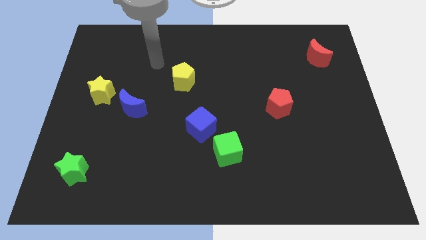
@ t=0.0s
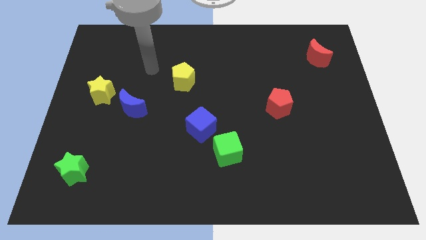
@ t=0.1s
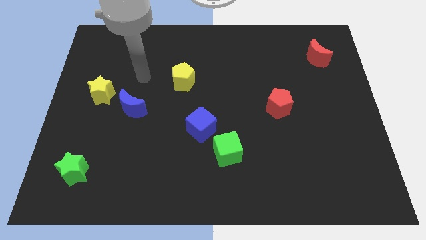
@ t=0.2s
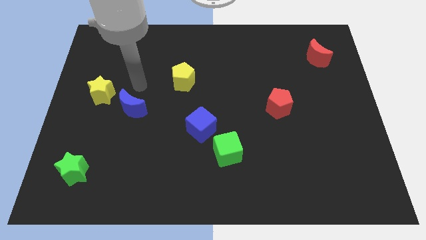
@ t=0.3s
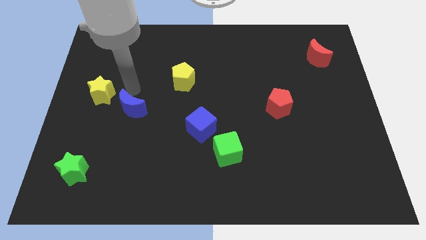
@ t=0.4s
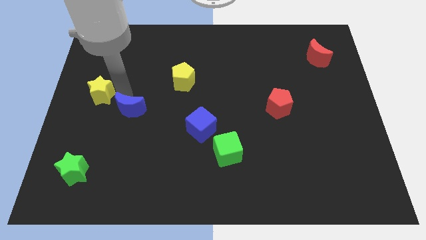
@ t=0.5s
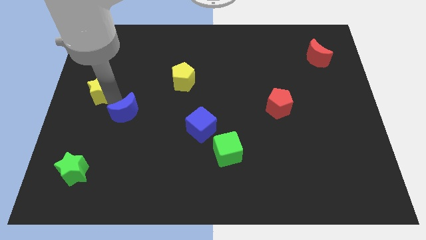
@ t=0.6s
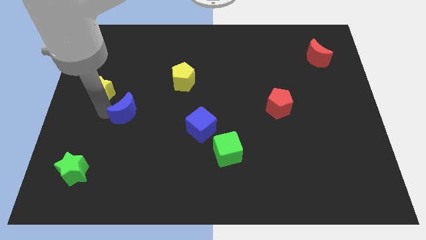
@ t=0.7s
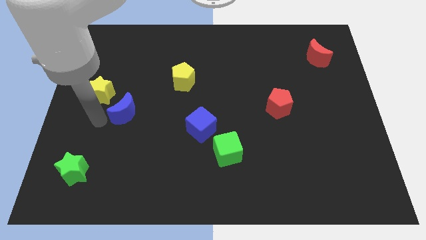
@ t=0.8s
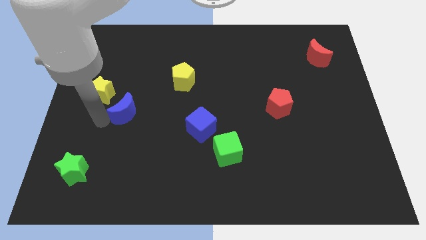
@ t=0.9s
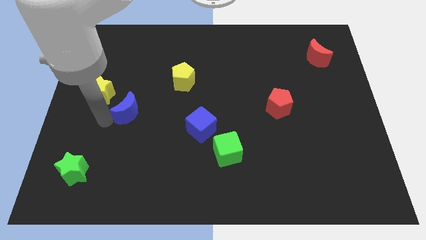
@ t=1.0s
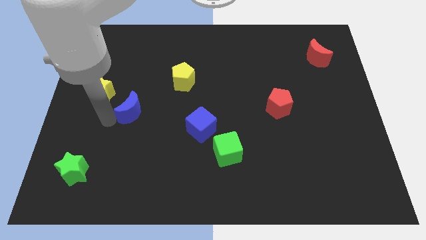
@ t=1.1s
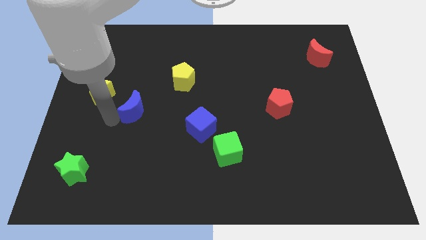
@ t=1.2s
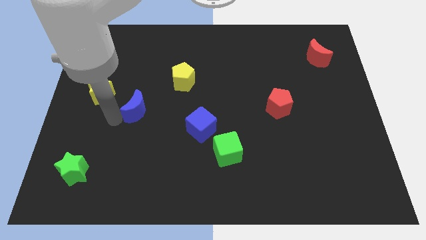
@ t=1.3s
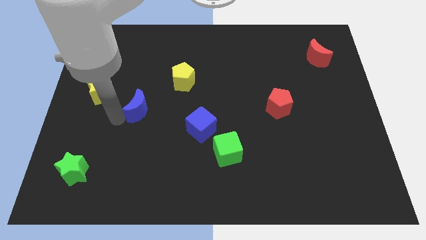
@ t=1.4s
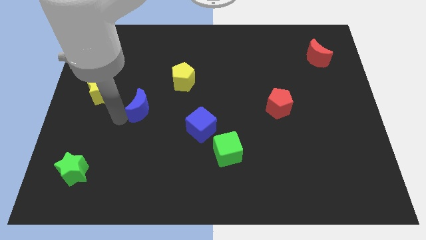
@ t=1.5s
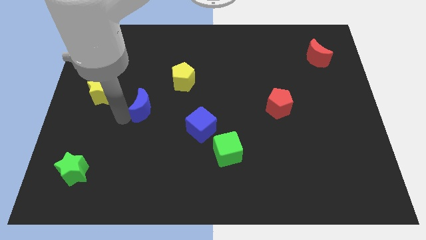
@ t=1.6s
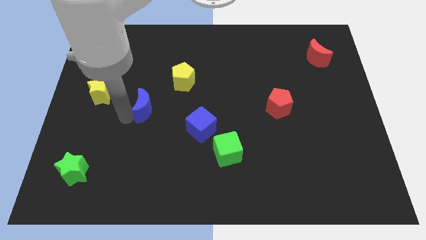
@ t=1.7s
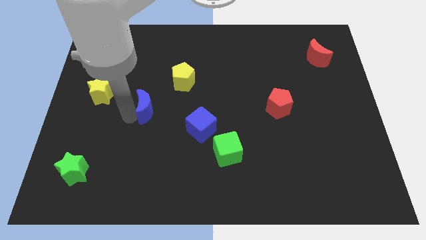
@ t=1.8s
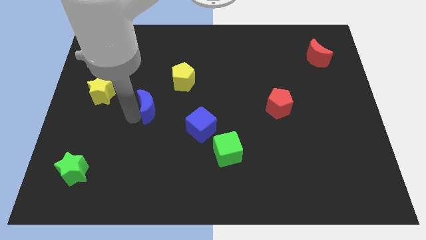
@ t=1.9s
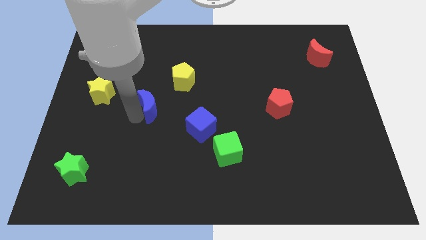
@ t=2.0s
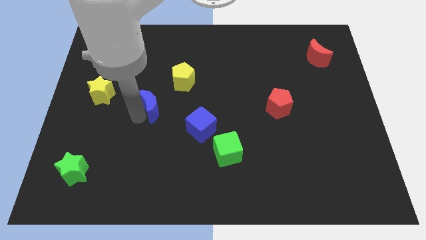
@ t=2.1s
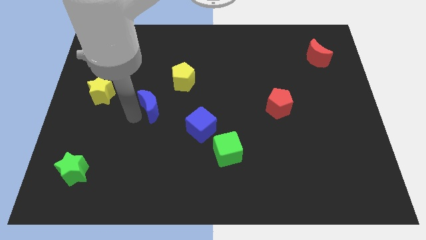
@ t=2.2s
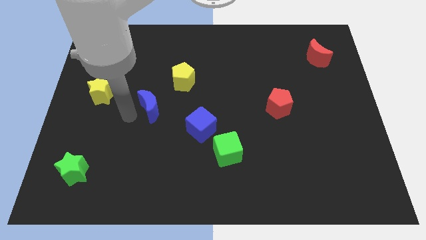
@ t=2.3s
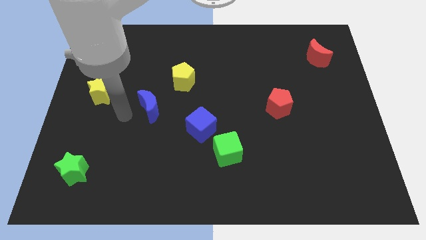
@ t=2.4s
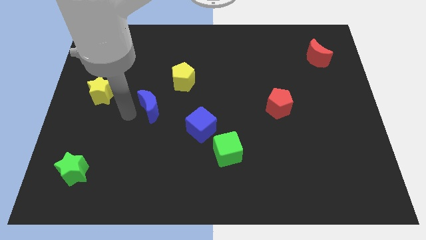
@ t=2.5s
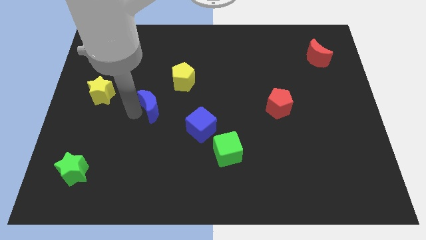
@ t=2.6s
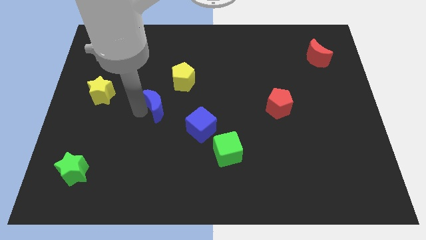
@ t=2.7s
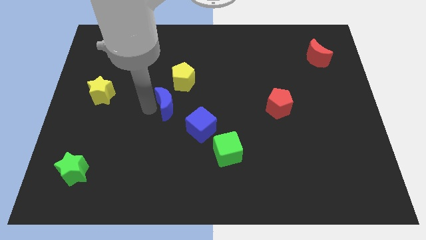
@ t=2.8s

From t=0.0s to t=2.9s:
slide the blue moon a little bit to the right

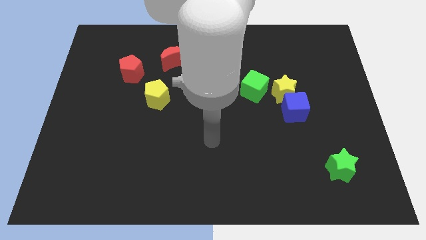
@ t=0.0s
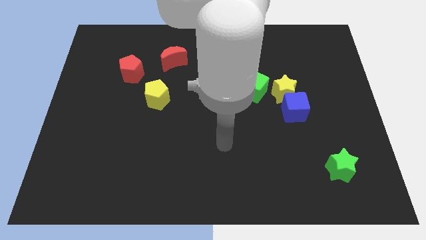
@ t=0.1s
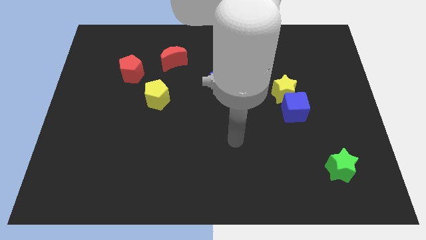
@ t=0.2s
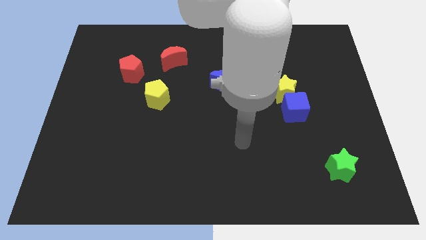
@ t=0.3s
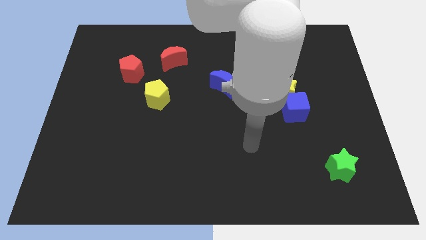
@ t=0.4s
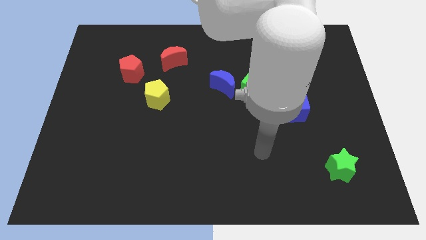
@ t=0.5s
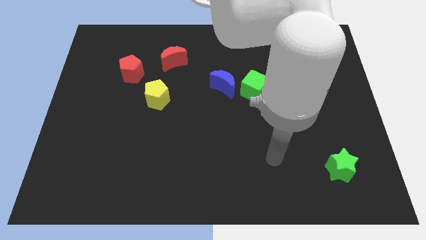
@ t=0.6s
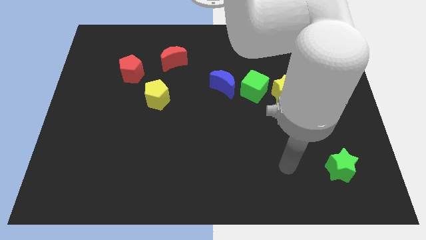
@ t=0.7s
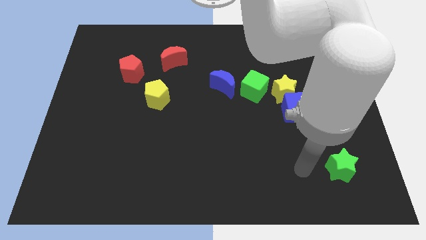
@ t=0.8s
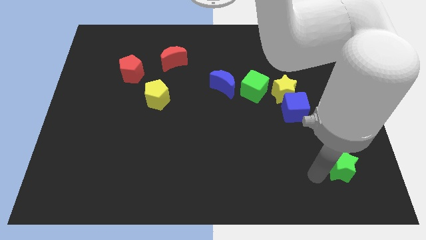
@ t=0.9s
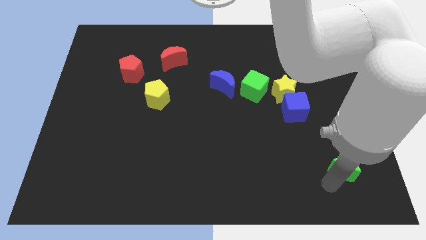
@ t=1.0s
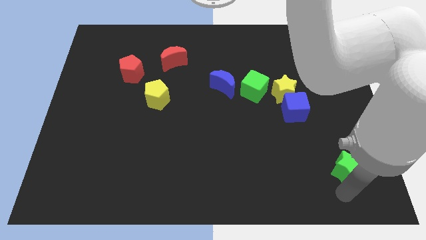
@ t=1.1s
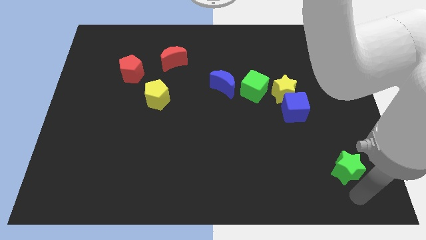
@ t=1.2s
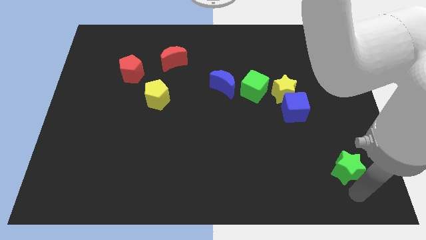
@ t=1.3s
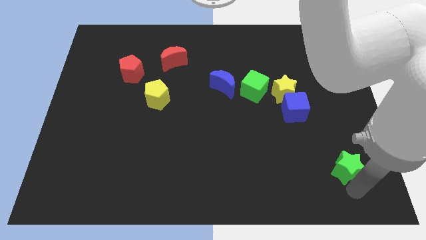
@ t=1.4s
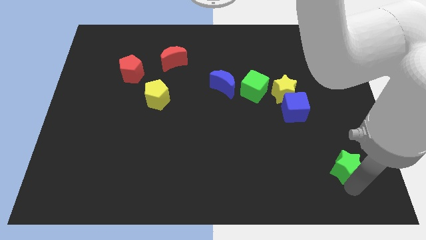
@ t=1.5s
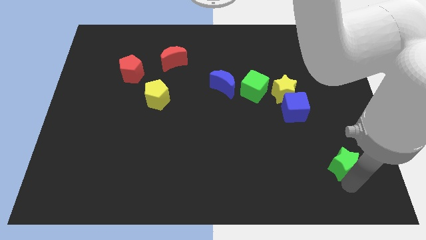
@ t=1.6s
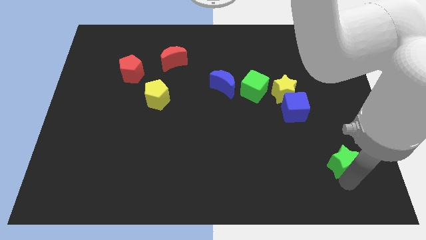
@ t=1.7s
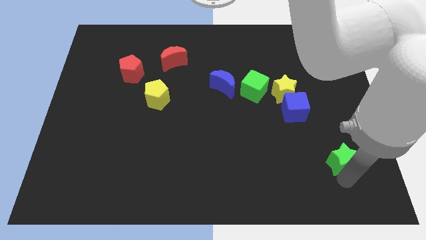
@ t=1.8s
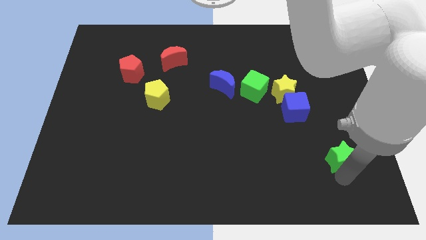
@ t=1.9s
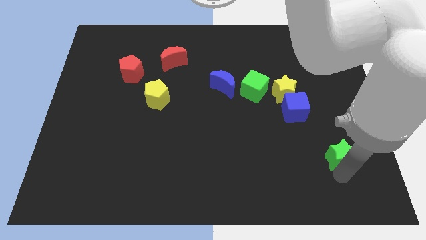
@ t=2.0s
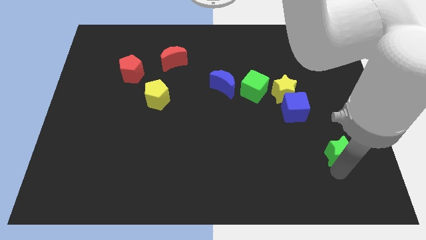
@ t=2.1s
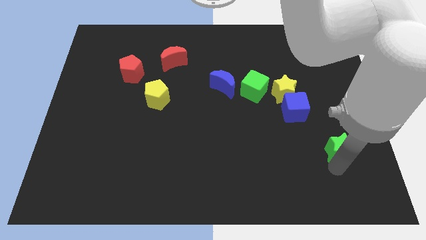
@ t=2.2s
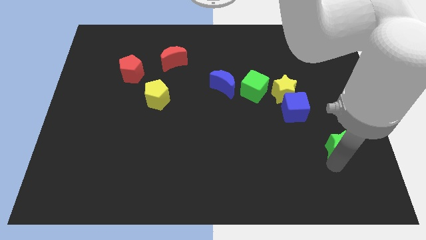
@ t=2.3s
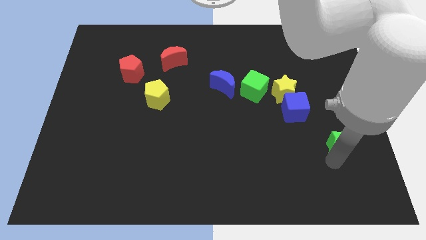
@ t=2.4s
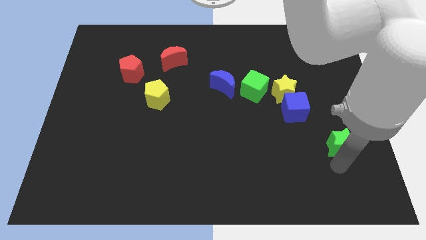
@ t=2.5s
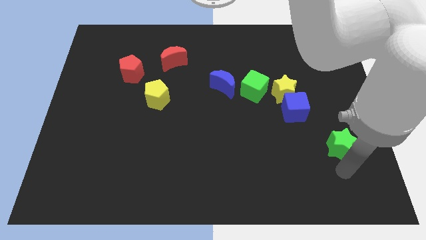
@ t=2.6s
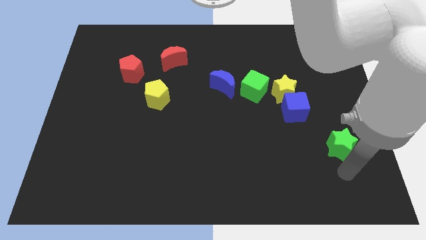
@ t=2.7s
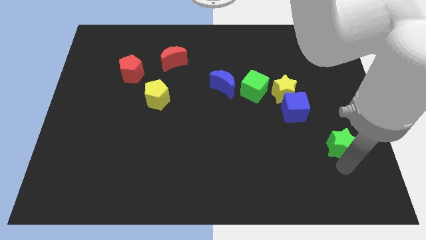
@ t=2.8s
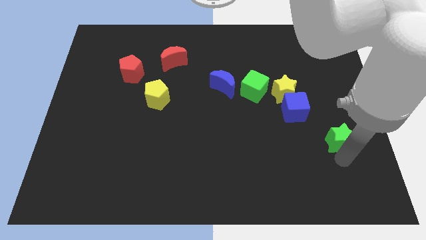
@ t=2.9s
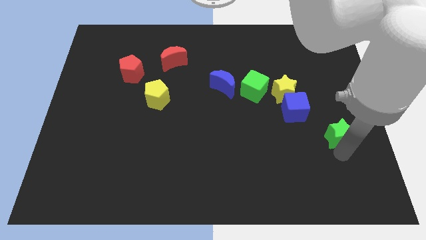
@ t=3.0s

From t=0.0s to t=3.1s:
push the green star upwards slightly

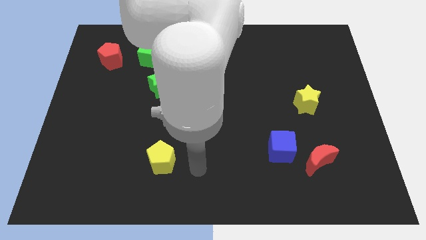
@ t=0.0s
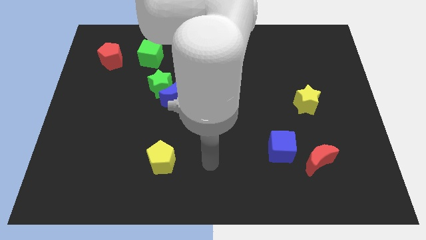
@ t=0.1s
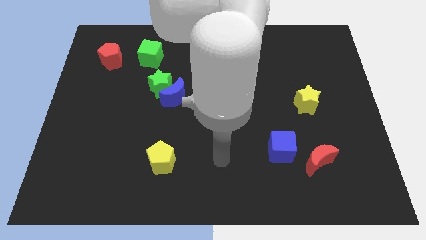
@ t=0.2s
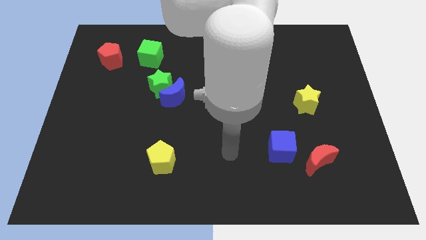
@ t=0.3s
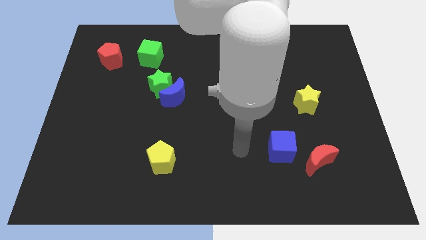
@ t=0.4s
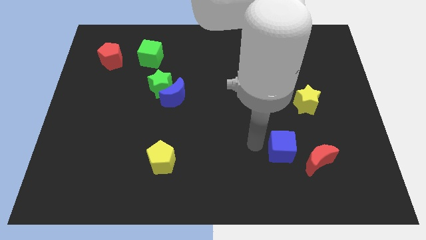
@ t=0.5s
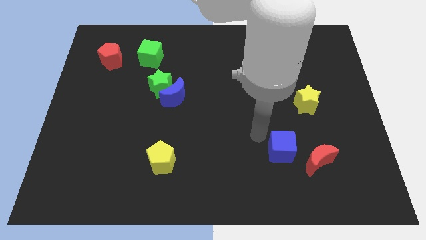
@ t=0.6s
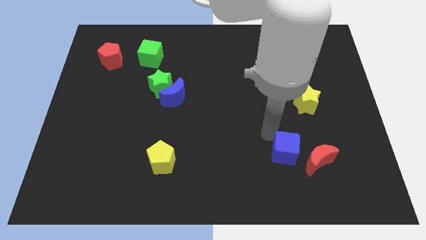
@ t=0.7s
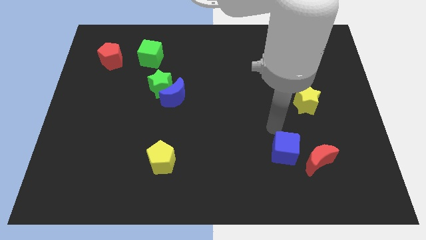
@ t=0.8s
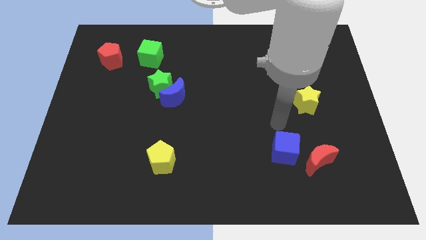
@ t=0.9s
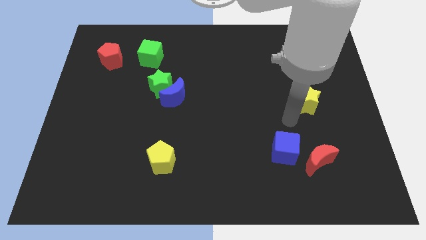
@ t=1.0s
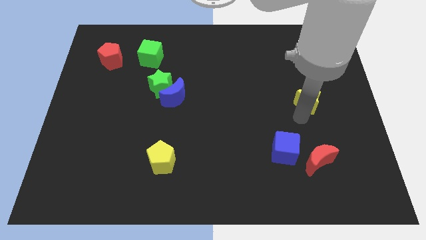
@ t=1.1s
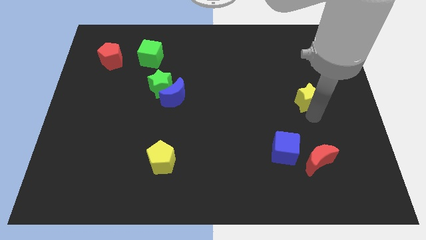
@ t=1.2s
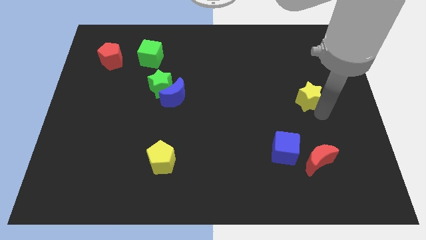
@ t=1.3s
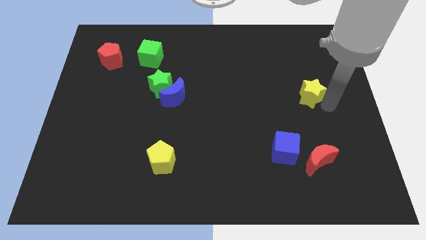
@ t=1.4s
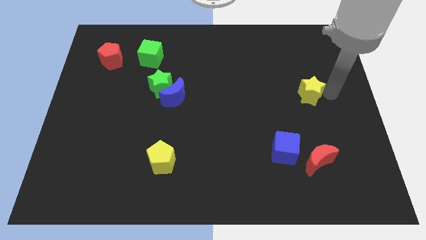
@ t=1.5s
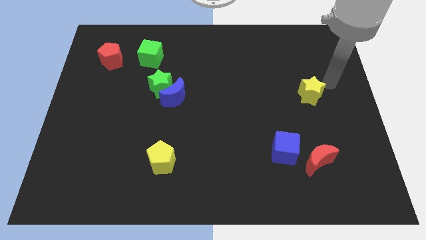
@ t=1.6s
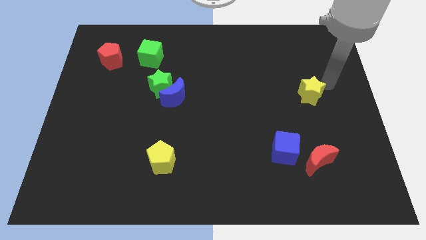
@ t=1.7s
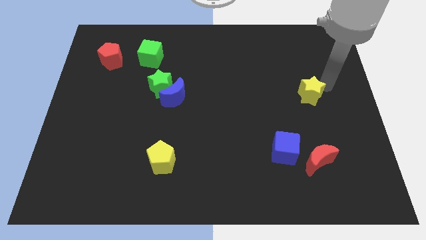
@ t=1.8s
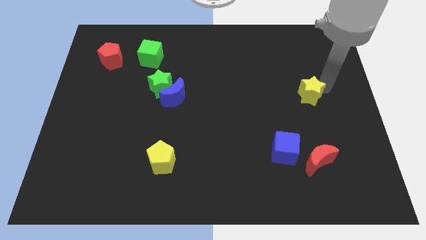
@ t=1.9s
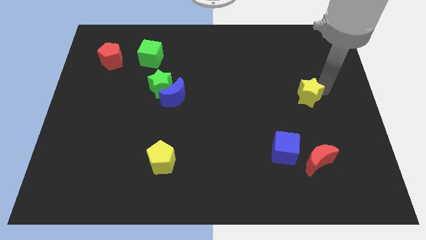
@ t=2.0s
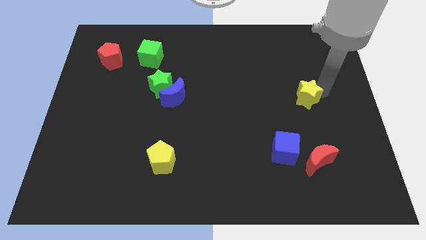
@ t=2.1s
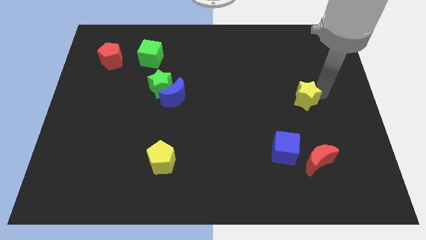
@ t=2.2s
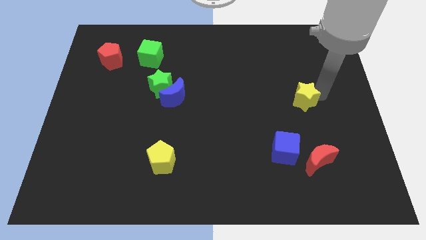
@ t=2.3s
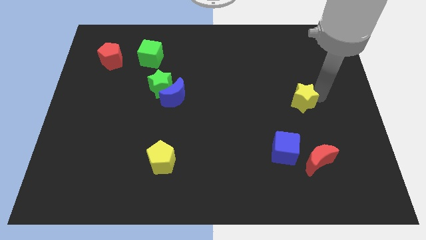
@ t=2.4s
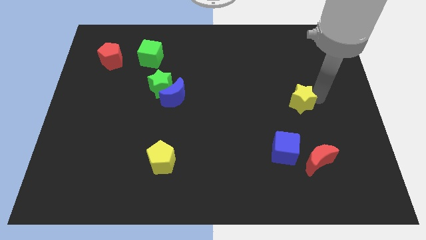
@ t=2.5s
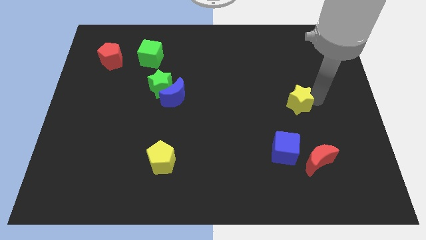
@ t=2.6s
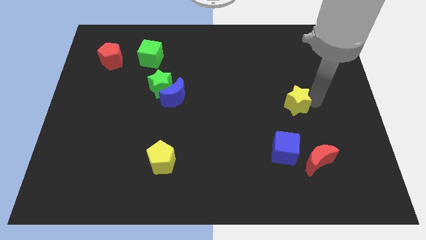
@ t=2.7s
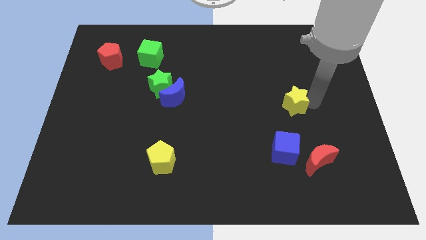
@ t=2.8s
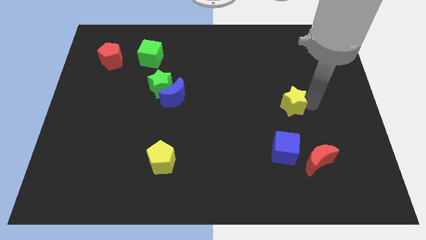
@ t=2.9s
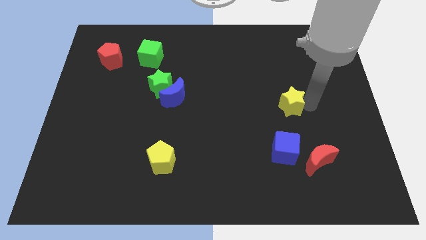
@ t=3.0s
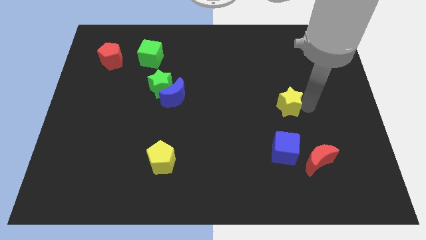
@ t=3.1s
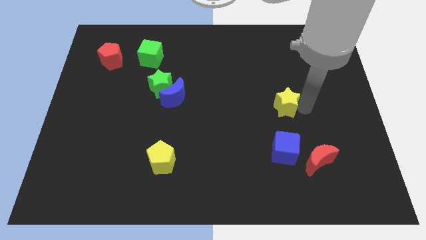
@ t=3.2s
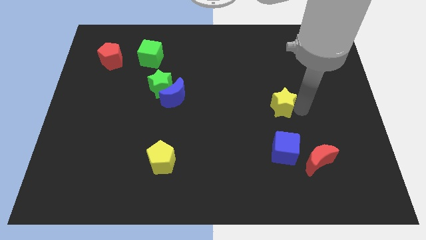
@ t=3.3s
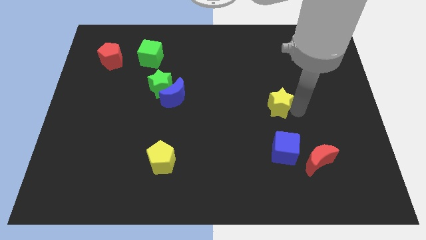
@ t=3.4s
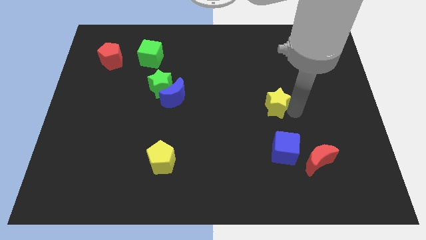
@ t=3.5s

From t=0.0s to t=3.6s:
push the yellow star left a little bit
